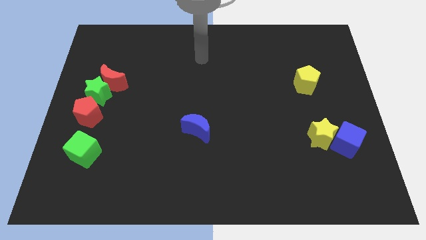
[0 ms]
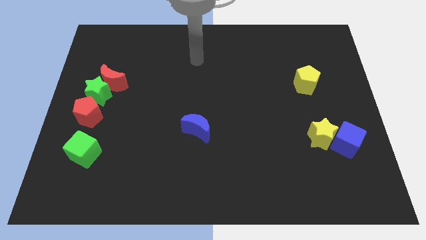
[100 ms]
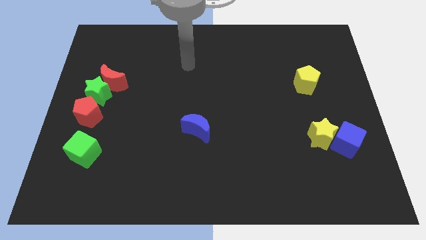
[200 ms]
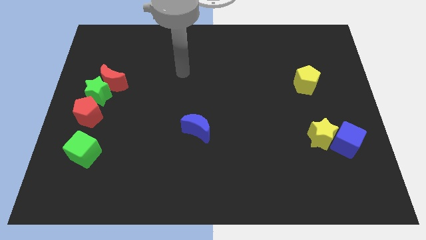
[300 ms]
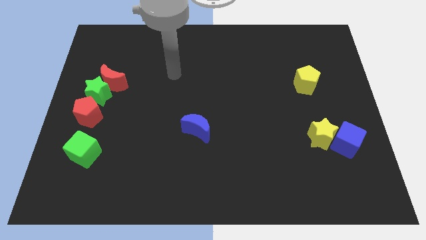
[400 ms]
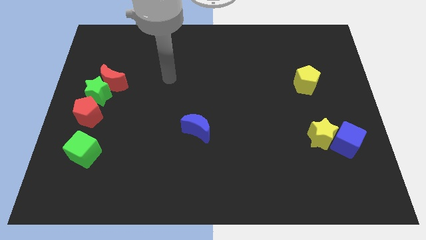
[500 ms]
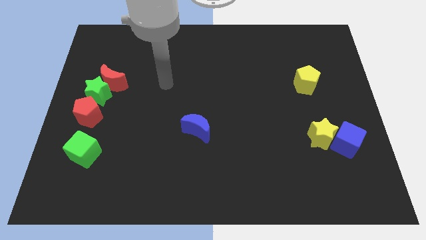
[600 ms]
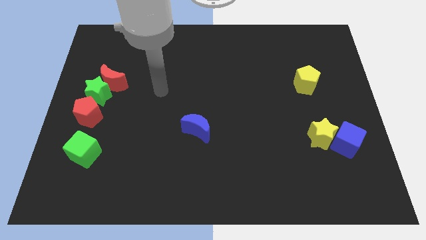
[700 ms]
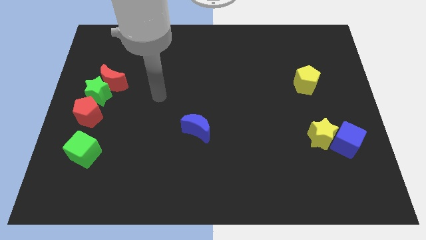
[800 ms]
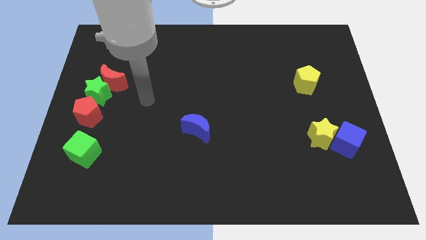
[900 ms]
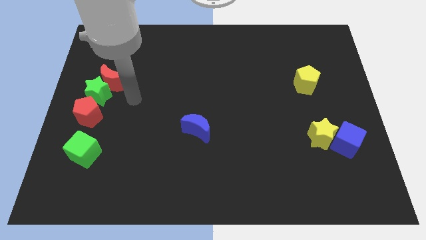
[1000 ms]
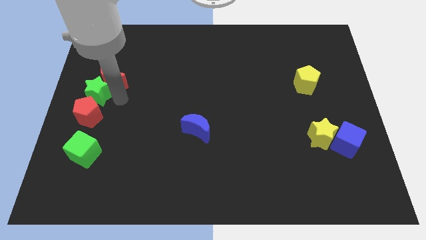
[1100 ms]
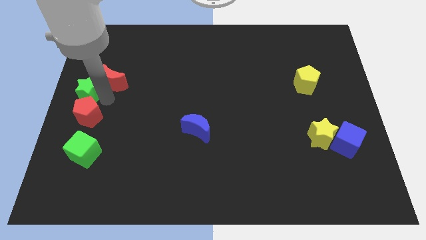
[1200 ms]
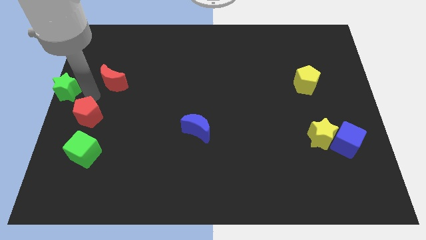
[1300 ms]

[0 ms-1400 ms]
pull the red moon apart from the green star

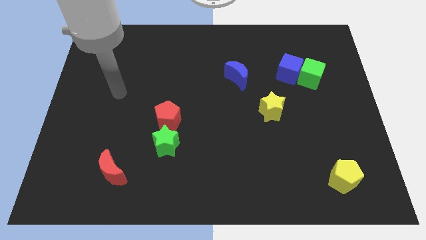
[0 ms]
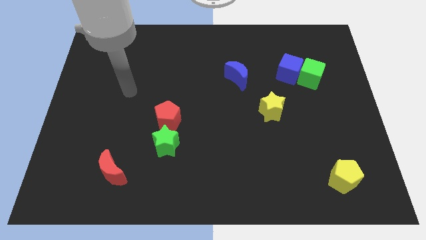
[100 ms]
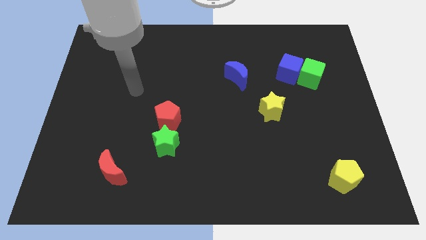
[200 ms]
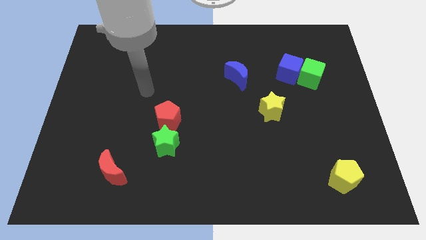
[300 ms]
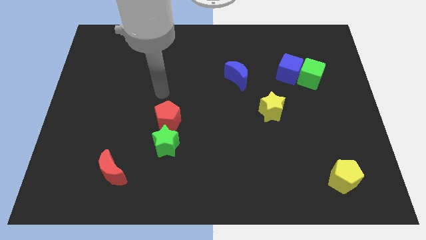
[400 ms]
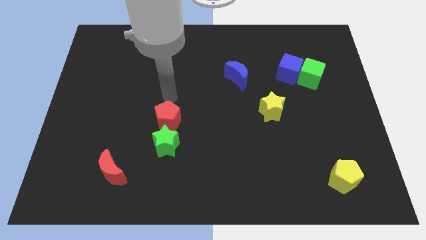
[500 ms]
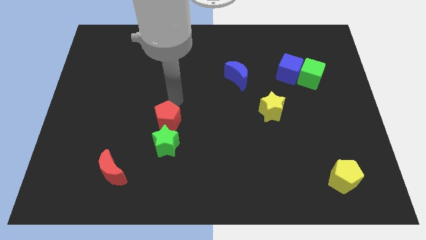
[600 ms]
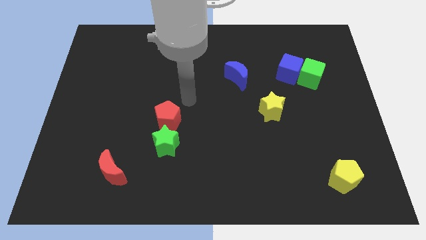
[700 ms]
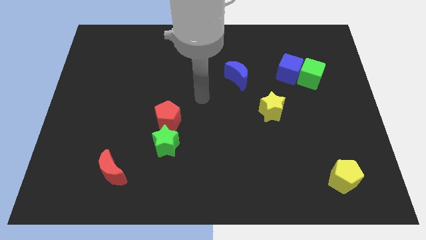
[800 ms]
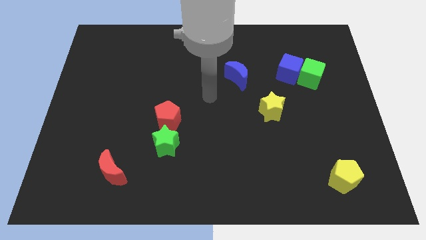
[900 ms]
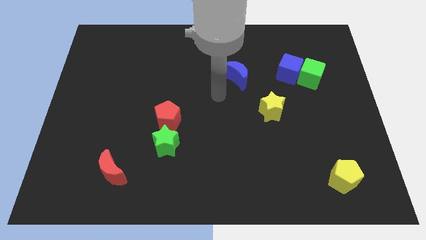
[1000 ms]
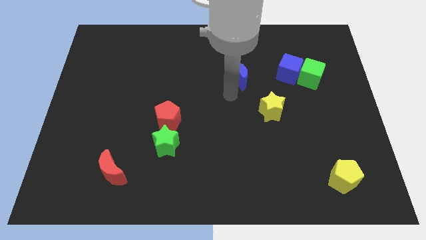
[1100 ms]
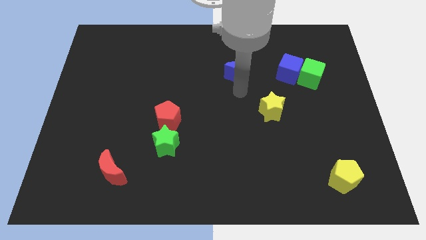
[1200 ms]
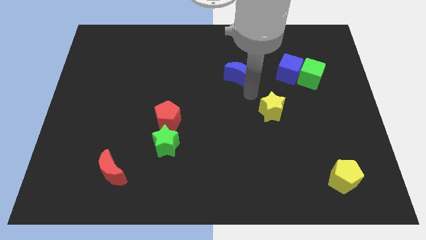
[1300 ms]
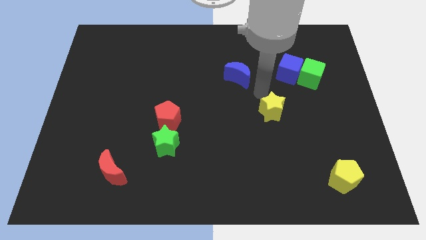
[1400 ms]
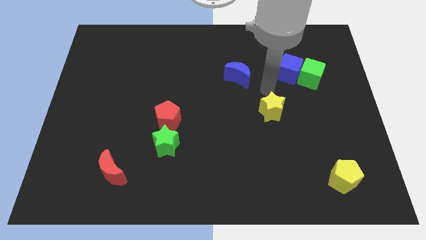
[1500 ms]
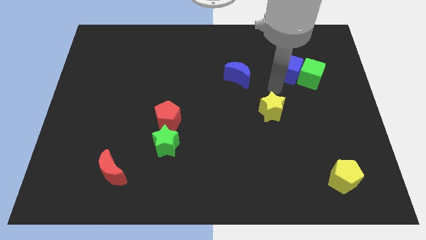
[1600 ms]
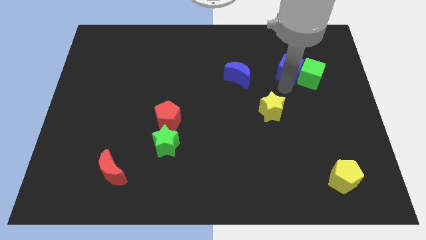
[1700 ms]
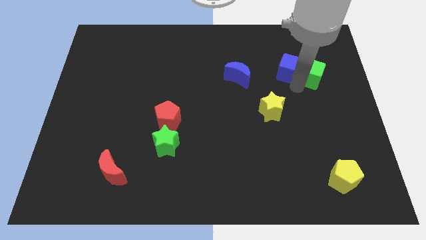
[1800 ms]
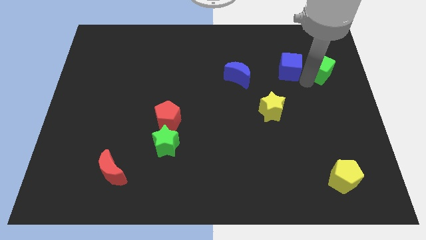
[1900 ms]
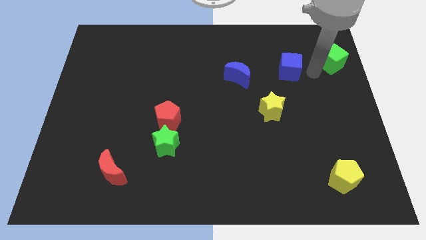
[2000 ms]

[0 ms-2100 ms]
separate the blue cube from the green cube

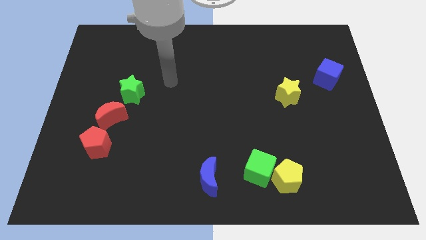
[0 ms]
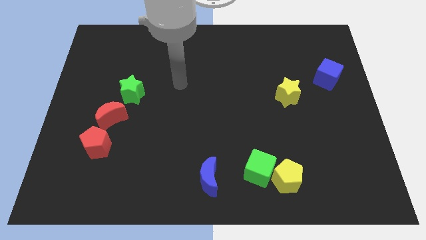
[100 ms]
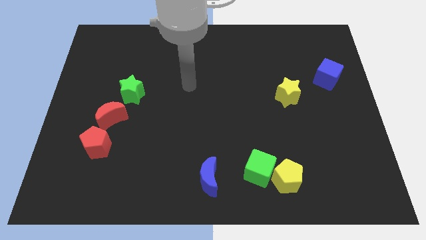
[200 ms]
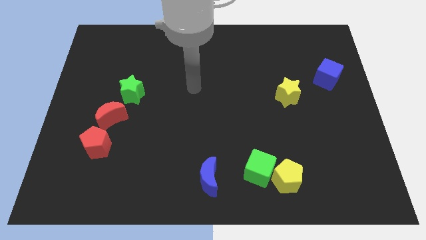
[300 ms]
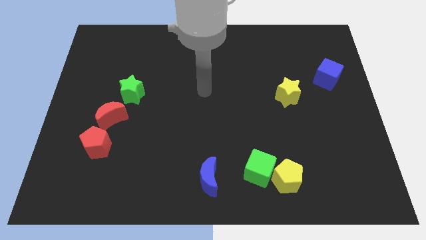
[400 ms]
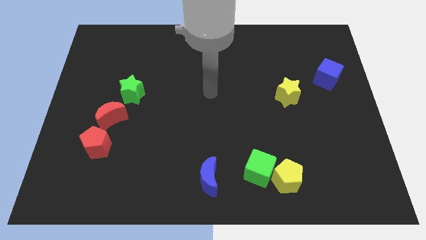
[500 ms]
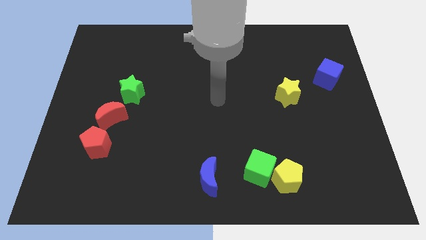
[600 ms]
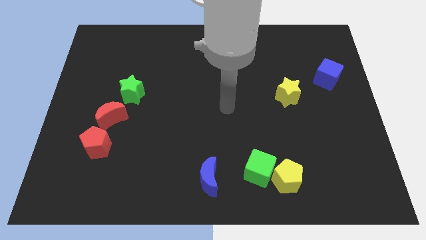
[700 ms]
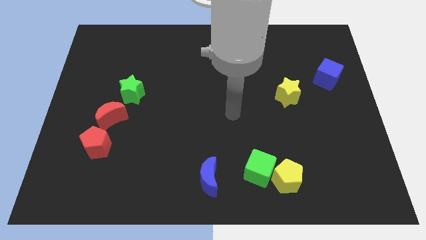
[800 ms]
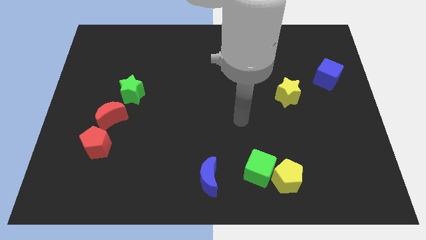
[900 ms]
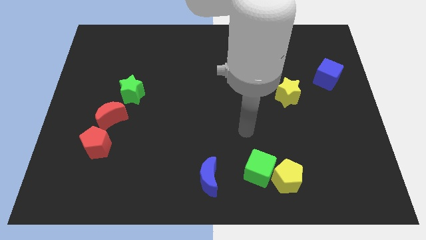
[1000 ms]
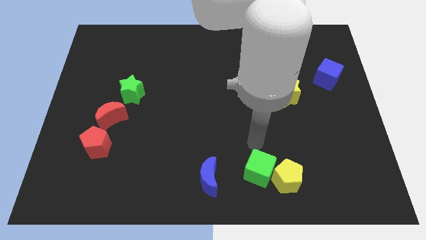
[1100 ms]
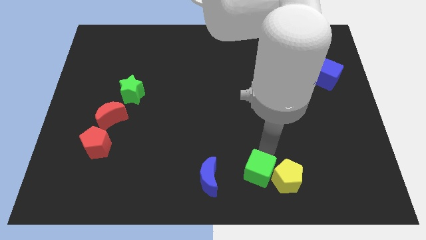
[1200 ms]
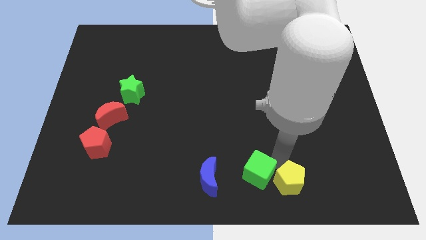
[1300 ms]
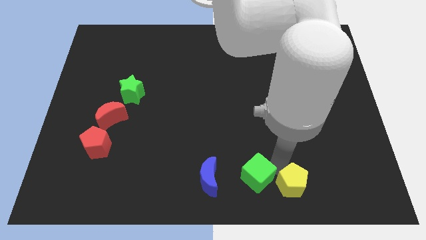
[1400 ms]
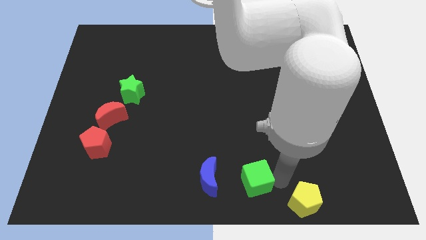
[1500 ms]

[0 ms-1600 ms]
separate the green cube from the yellow pentagon

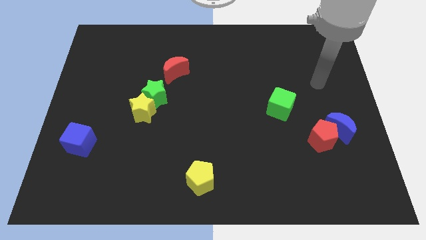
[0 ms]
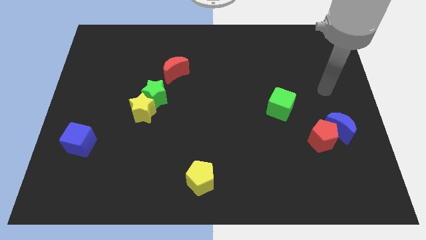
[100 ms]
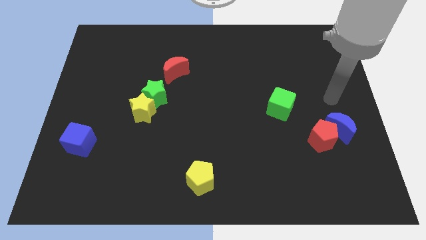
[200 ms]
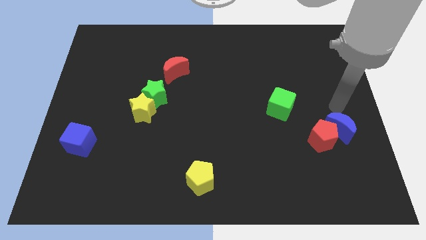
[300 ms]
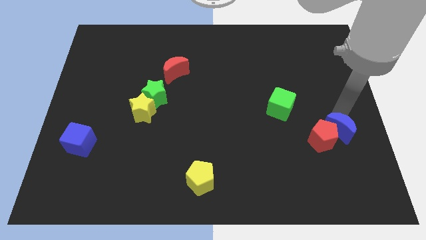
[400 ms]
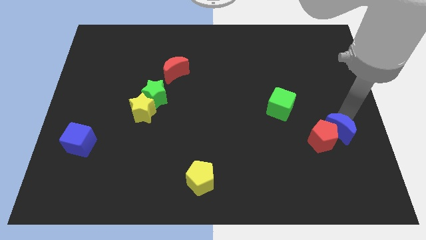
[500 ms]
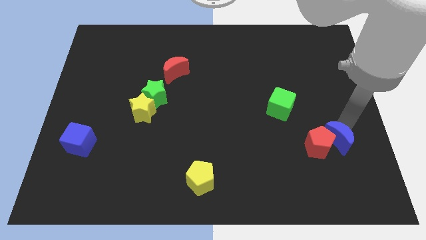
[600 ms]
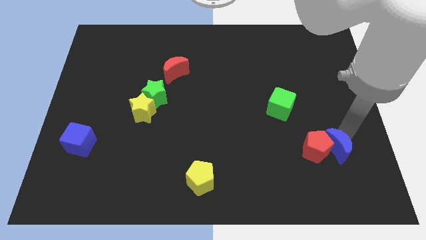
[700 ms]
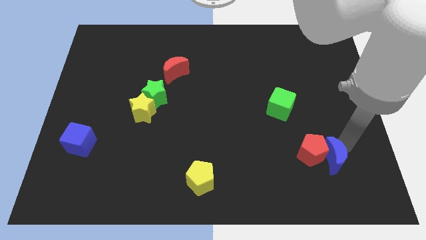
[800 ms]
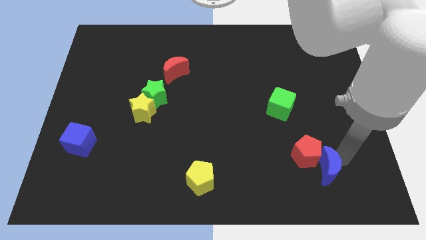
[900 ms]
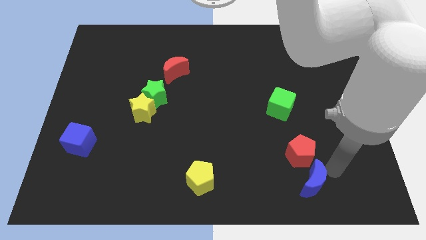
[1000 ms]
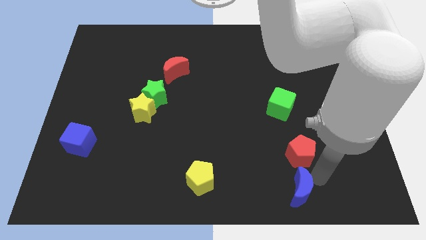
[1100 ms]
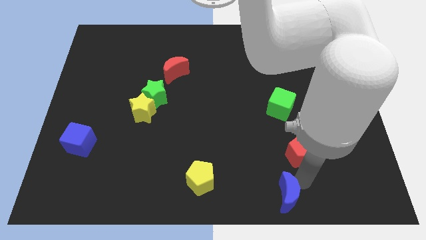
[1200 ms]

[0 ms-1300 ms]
separate the red pentagon from the blue moon

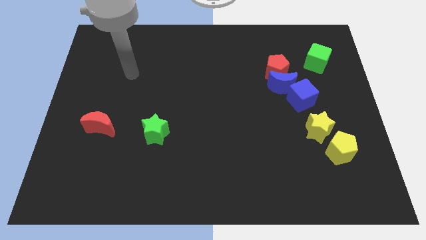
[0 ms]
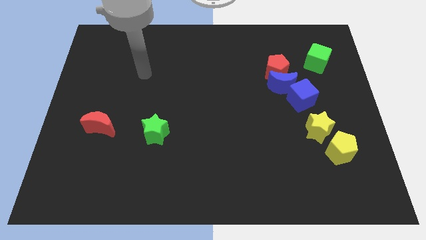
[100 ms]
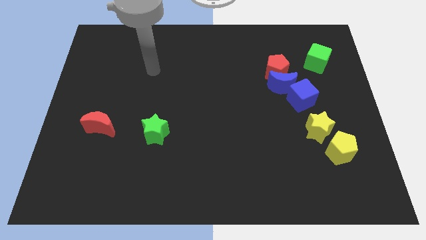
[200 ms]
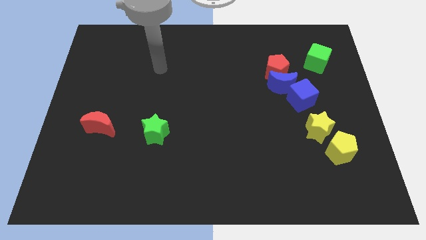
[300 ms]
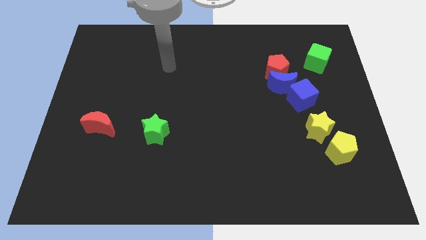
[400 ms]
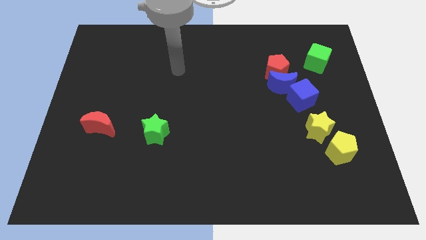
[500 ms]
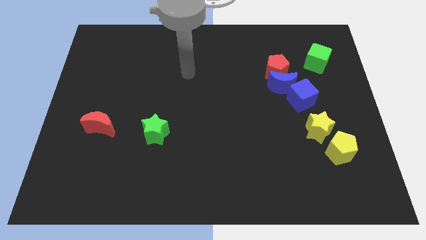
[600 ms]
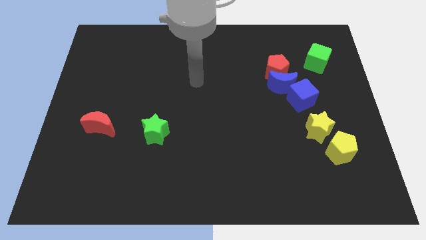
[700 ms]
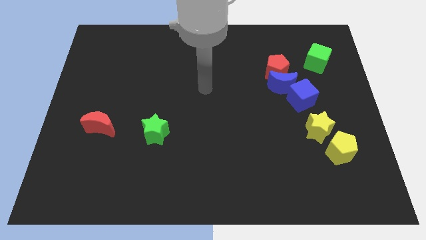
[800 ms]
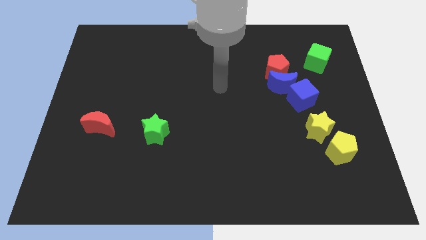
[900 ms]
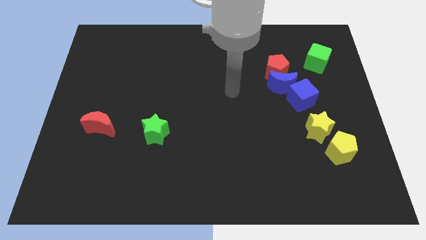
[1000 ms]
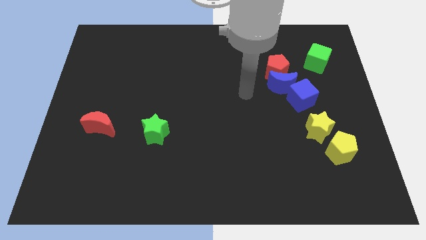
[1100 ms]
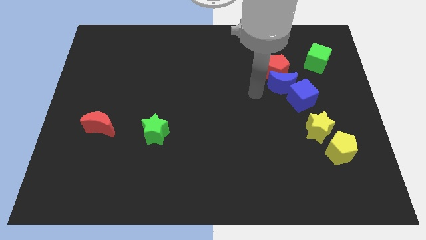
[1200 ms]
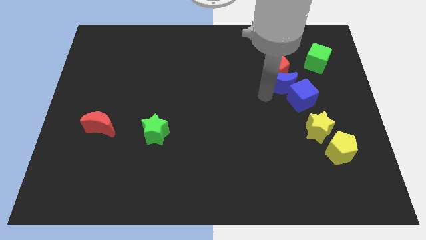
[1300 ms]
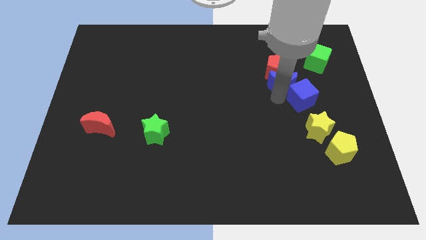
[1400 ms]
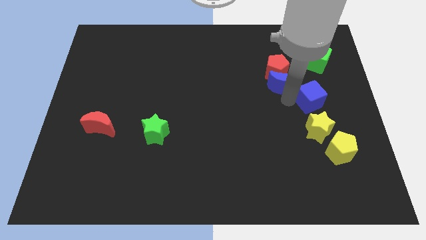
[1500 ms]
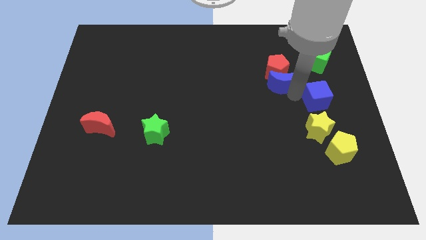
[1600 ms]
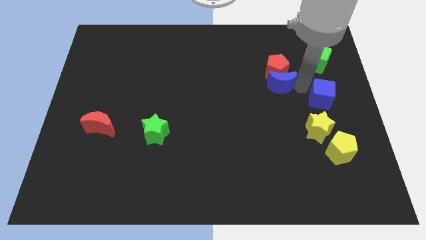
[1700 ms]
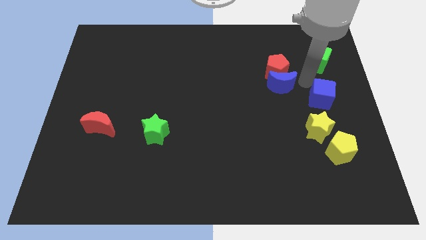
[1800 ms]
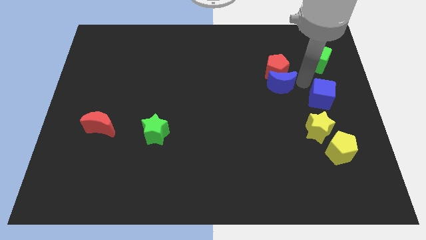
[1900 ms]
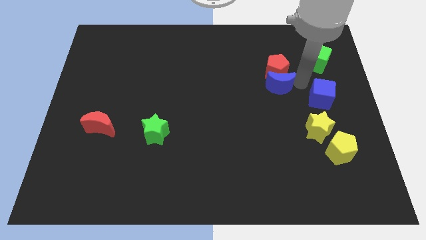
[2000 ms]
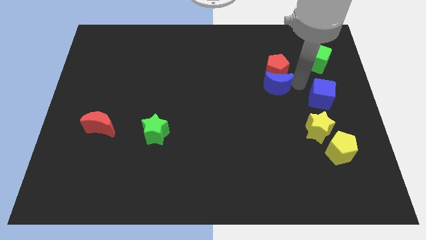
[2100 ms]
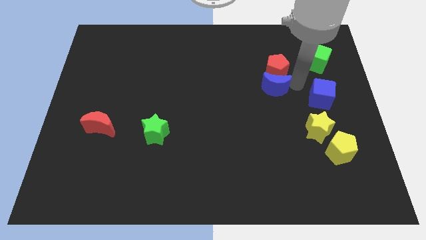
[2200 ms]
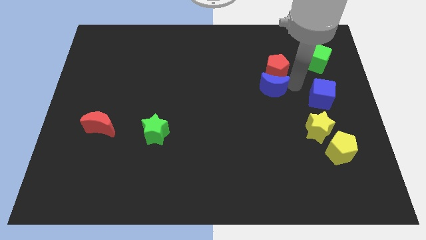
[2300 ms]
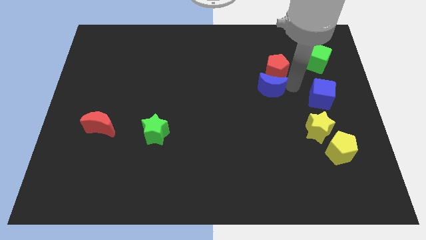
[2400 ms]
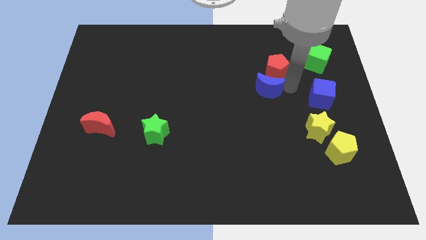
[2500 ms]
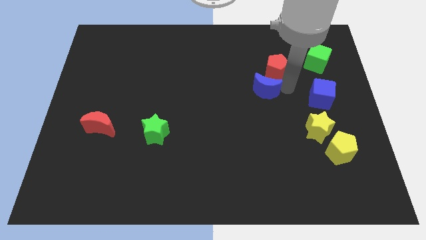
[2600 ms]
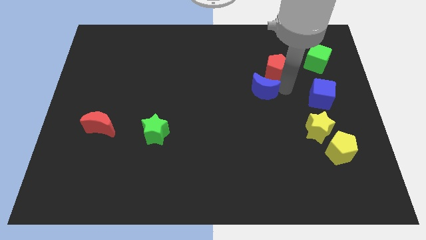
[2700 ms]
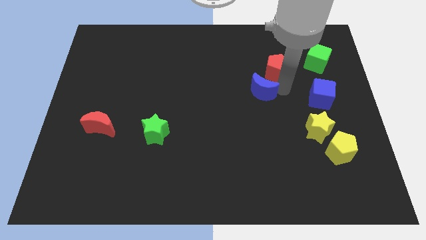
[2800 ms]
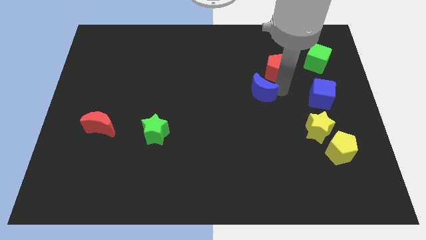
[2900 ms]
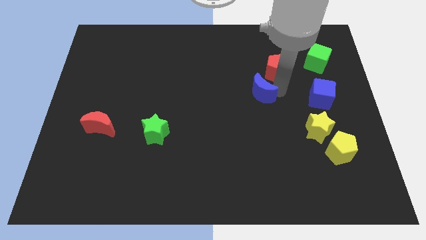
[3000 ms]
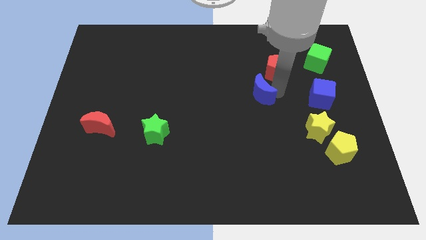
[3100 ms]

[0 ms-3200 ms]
separate the blue moon from the red pentagon and blue cube
